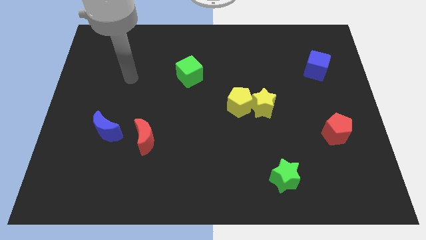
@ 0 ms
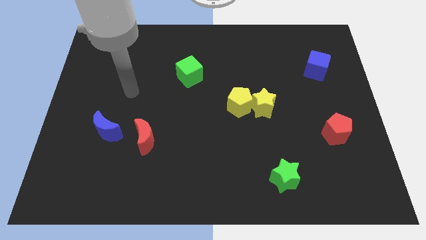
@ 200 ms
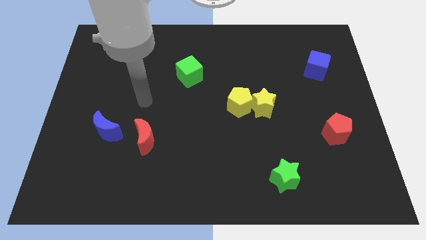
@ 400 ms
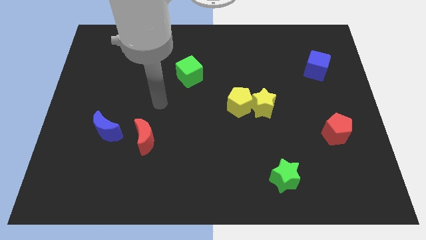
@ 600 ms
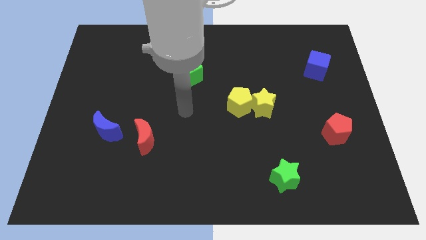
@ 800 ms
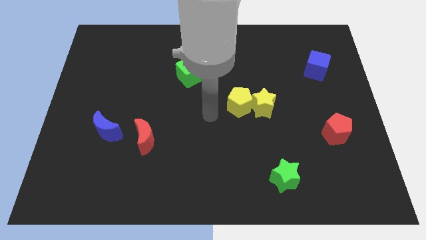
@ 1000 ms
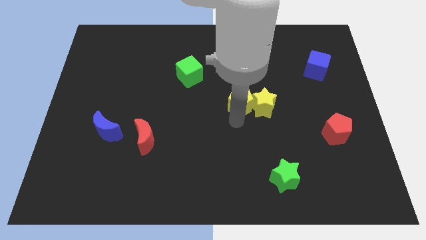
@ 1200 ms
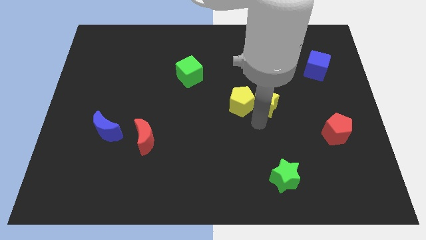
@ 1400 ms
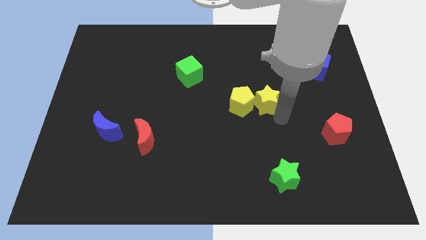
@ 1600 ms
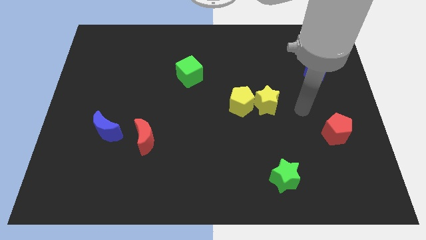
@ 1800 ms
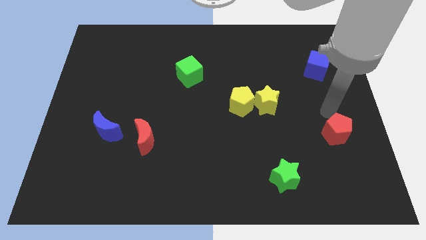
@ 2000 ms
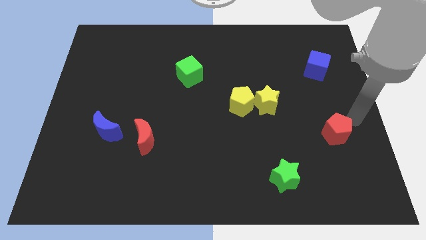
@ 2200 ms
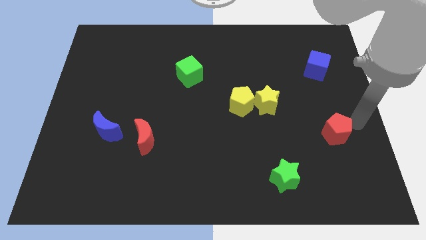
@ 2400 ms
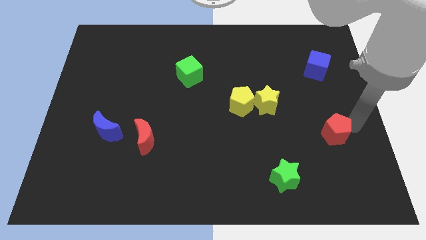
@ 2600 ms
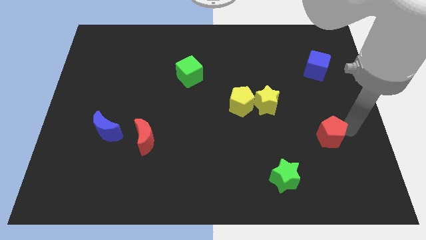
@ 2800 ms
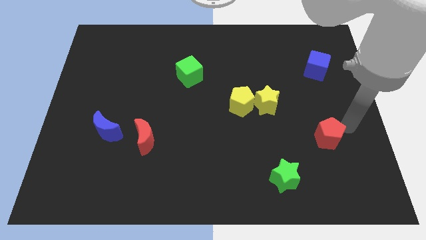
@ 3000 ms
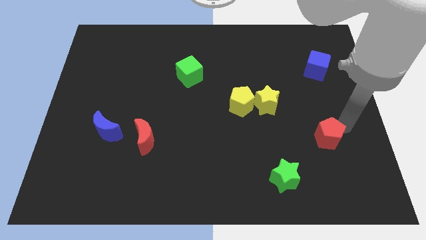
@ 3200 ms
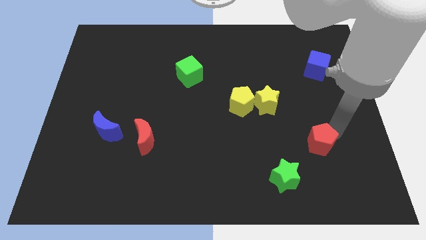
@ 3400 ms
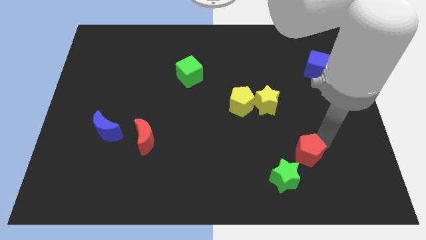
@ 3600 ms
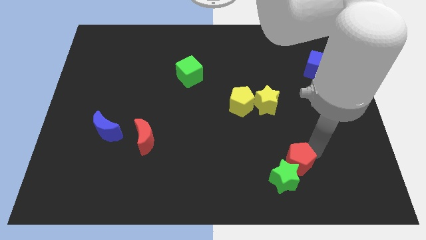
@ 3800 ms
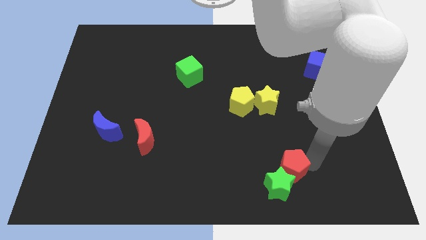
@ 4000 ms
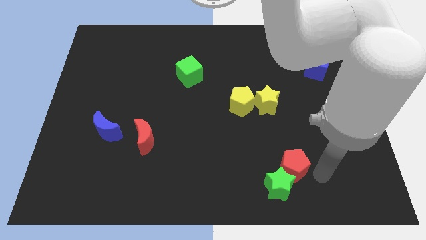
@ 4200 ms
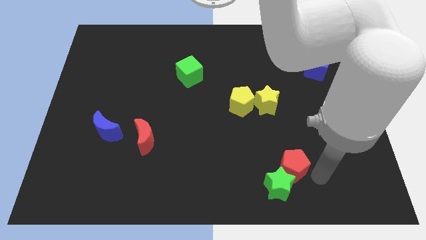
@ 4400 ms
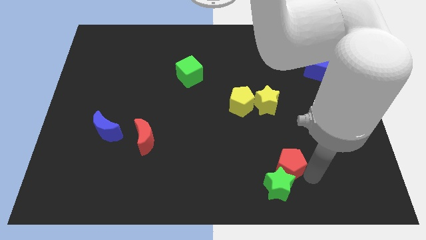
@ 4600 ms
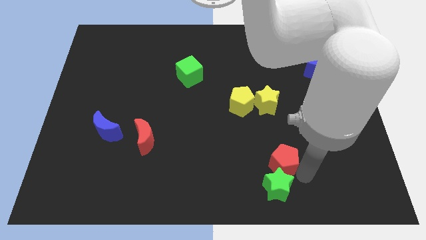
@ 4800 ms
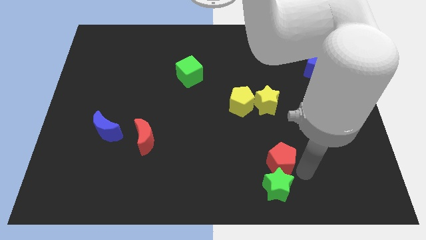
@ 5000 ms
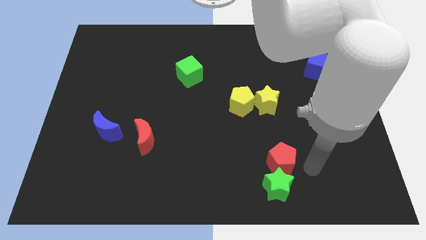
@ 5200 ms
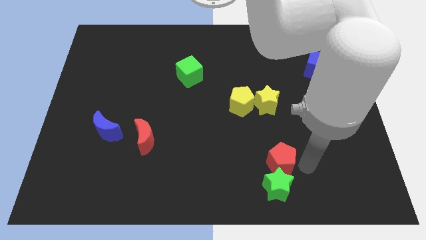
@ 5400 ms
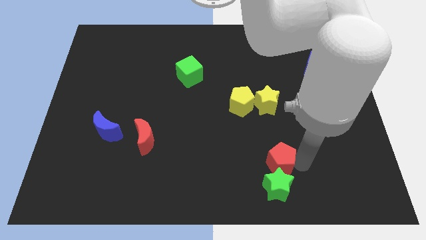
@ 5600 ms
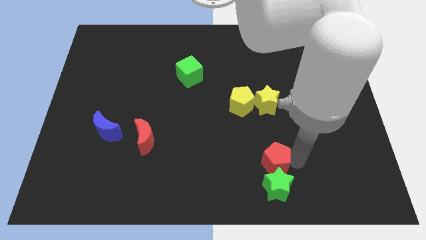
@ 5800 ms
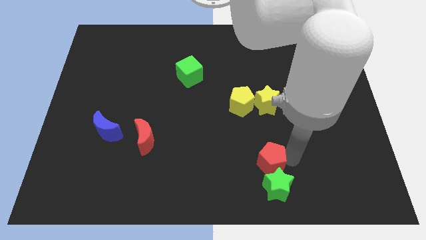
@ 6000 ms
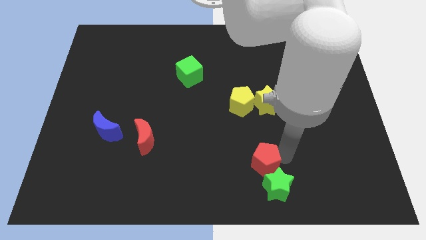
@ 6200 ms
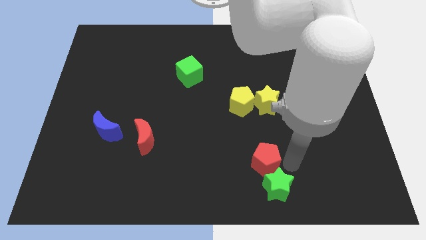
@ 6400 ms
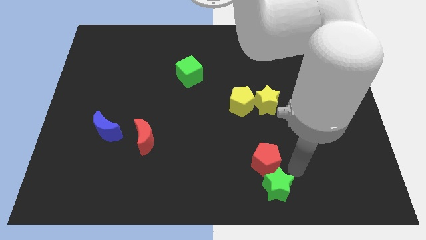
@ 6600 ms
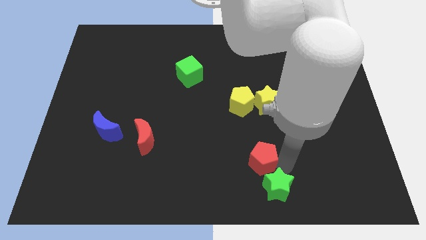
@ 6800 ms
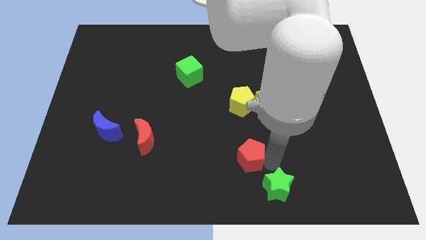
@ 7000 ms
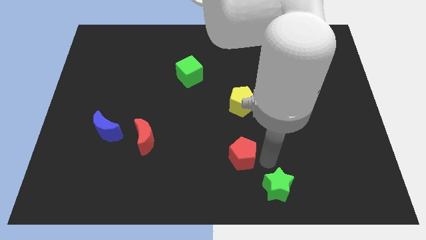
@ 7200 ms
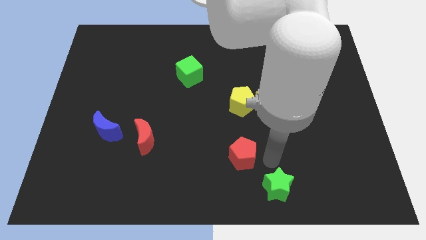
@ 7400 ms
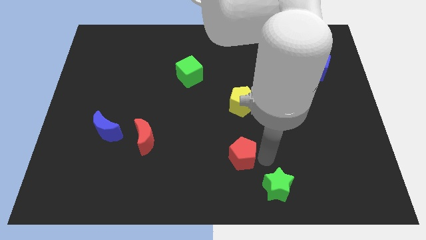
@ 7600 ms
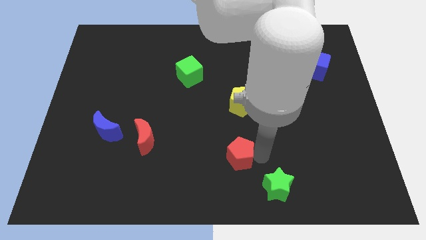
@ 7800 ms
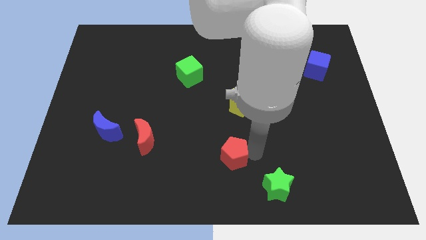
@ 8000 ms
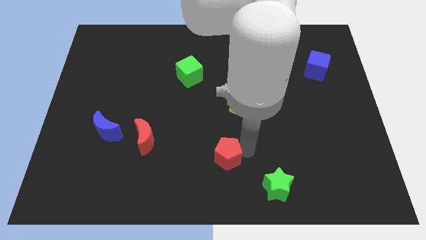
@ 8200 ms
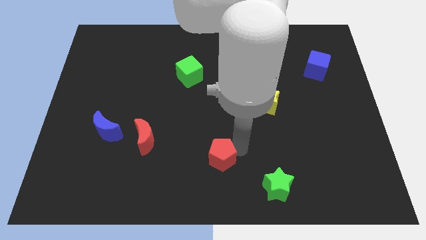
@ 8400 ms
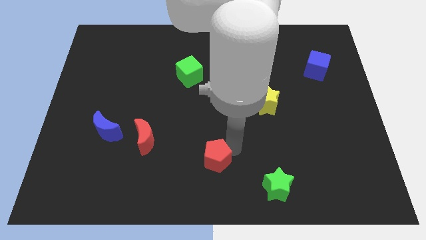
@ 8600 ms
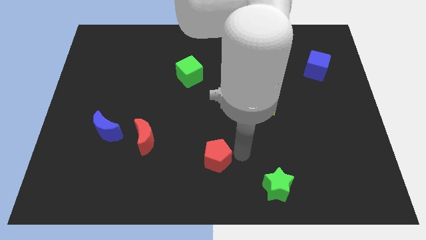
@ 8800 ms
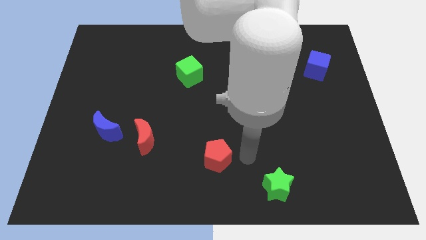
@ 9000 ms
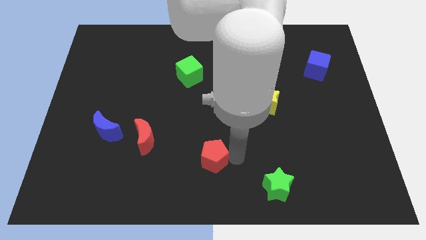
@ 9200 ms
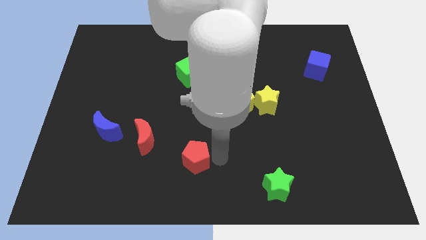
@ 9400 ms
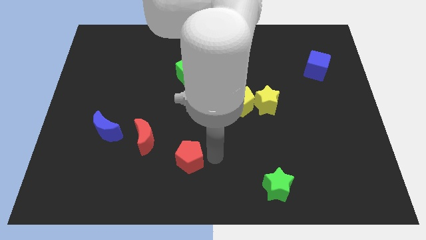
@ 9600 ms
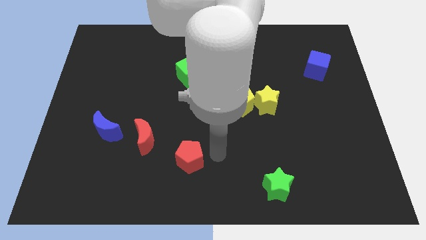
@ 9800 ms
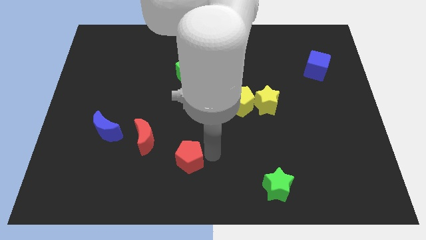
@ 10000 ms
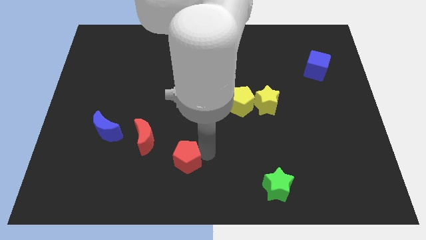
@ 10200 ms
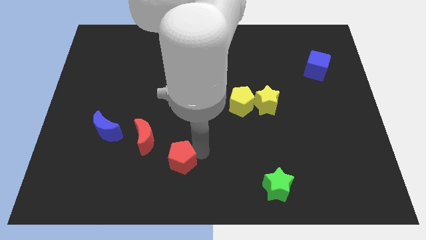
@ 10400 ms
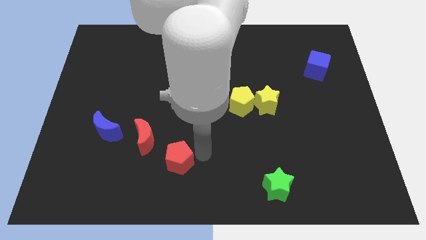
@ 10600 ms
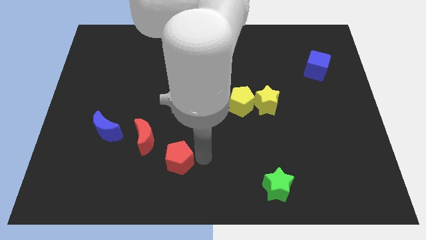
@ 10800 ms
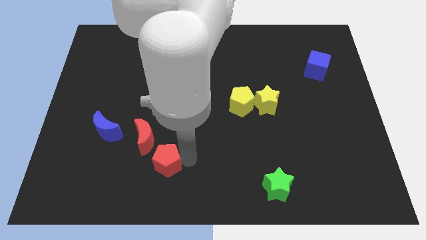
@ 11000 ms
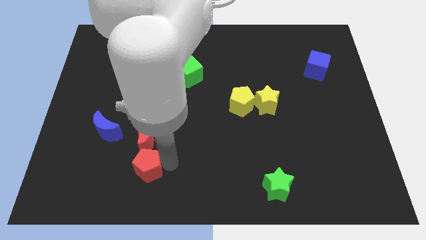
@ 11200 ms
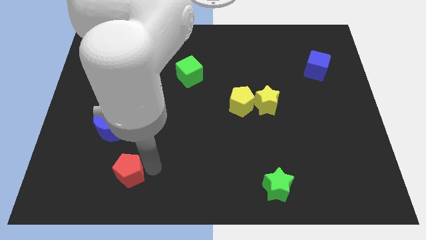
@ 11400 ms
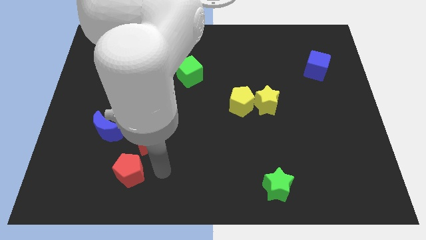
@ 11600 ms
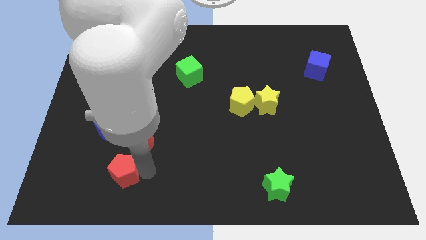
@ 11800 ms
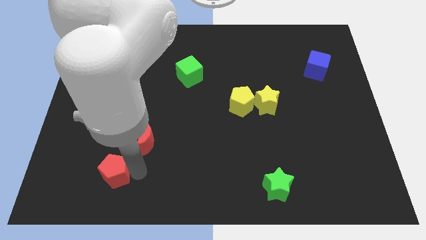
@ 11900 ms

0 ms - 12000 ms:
move the red pentagon to the bottom side of the blue moon

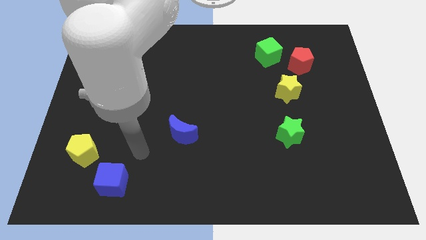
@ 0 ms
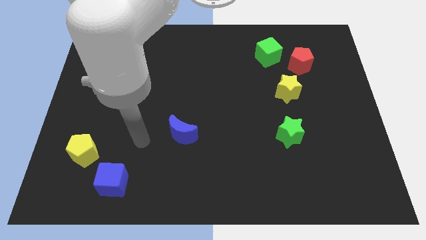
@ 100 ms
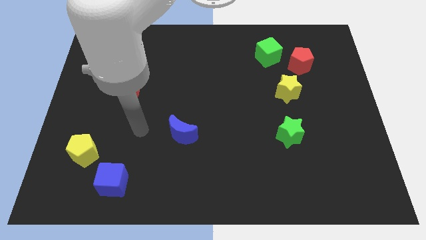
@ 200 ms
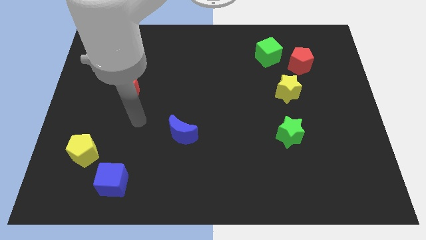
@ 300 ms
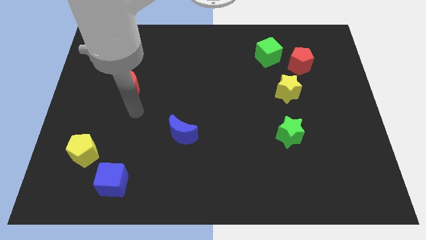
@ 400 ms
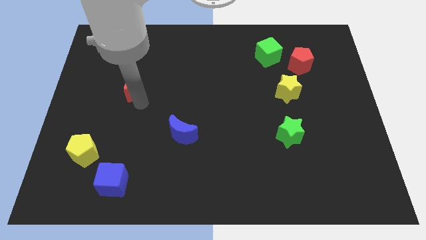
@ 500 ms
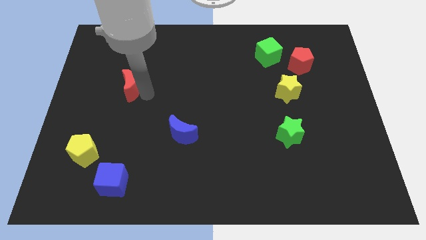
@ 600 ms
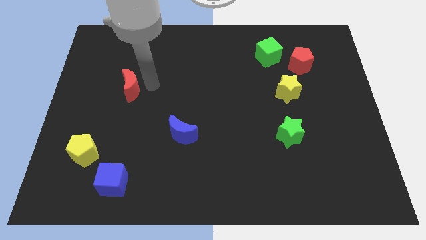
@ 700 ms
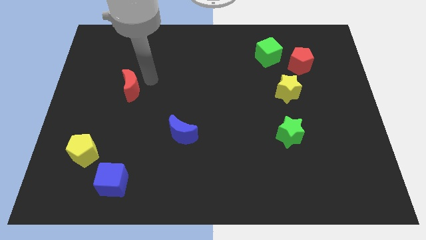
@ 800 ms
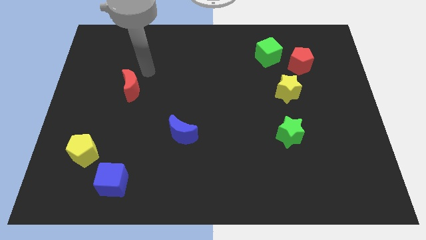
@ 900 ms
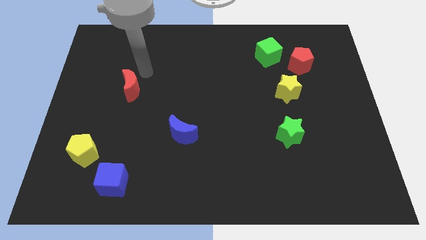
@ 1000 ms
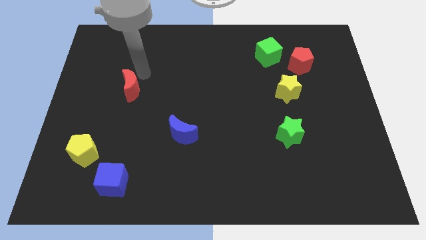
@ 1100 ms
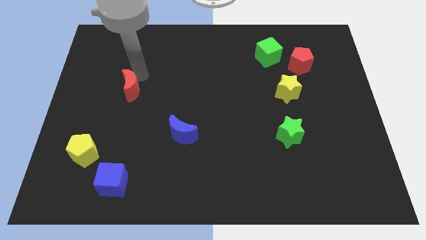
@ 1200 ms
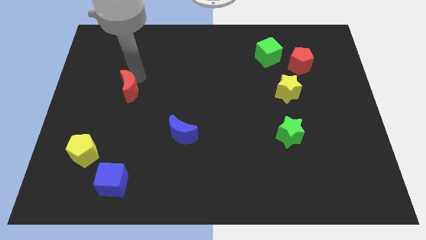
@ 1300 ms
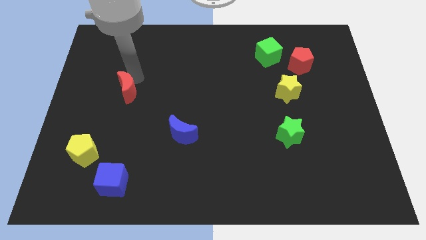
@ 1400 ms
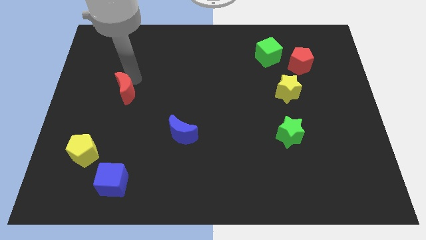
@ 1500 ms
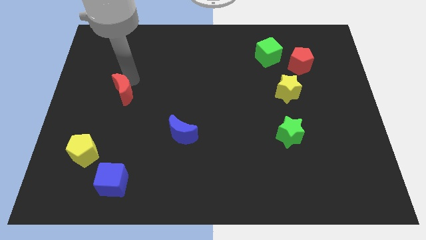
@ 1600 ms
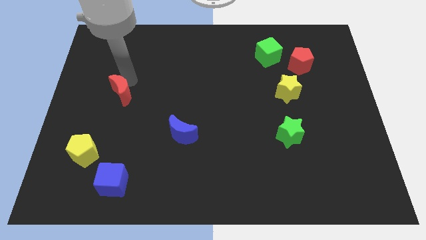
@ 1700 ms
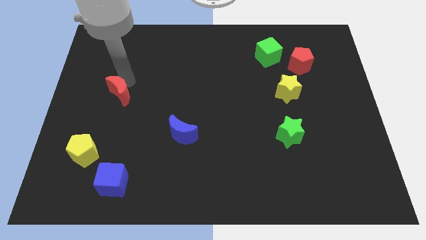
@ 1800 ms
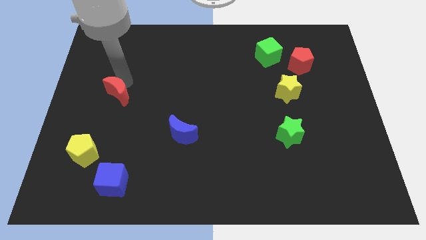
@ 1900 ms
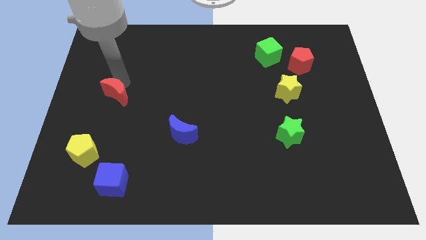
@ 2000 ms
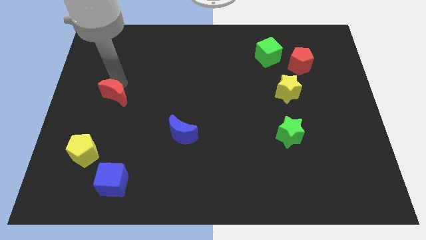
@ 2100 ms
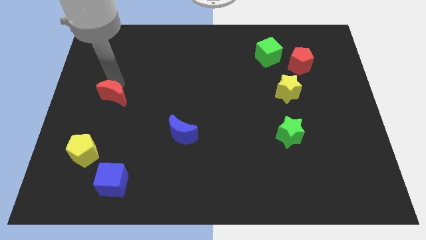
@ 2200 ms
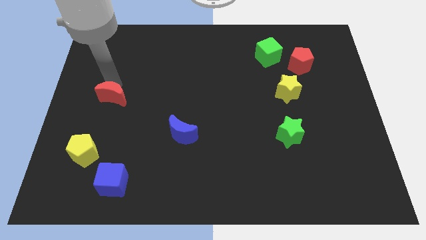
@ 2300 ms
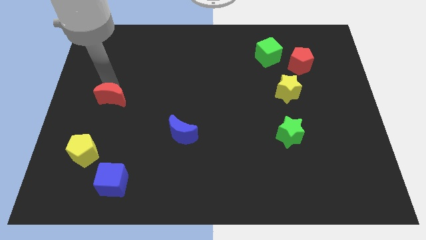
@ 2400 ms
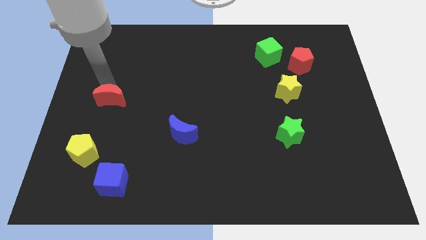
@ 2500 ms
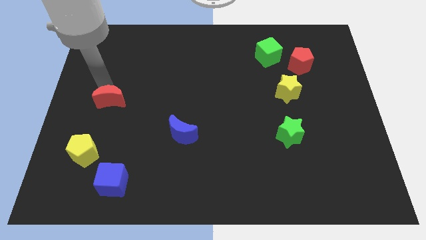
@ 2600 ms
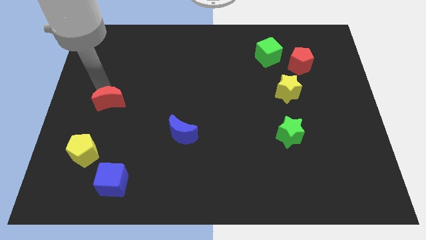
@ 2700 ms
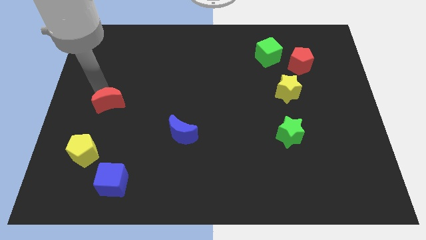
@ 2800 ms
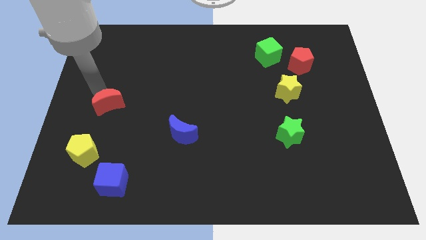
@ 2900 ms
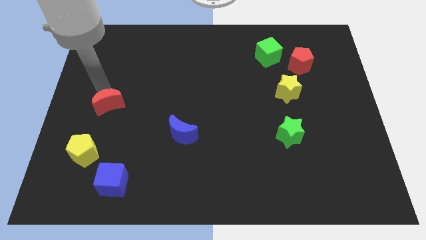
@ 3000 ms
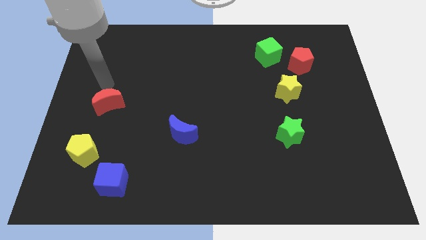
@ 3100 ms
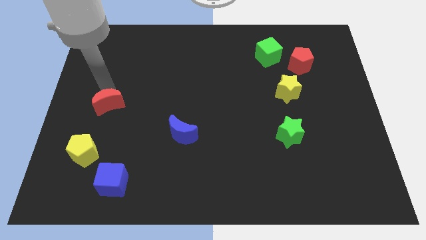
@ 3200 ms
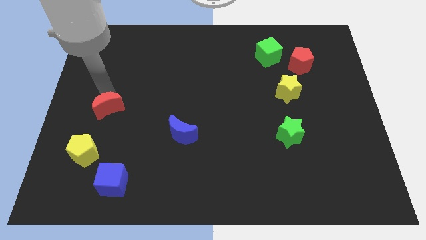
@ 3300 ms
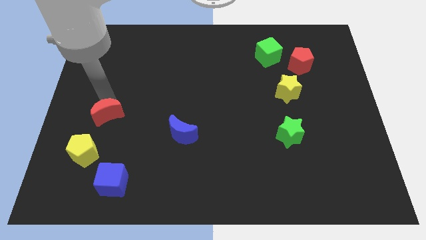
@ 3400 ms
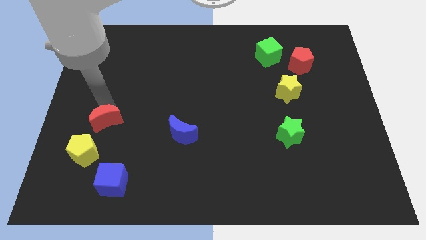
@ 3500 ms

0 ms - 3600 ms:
slide the red moon diagonally up and to the right of the yellow pentagon
